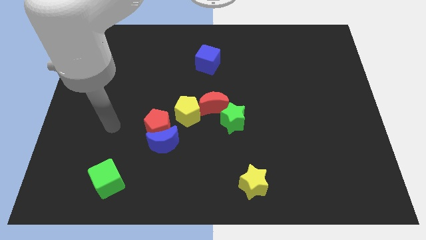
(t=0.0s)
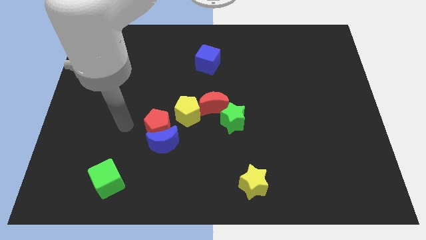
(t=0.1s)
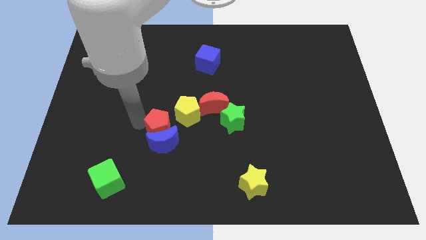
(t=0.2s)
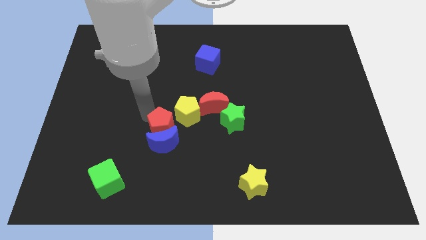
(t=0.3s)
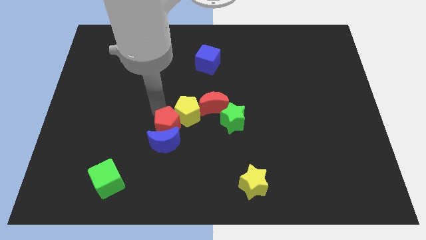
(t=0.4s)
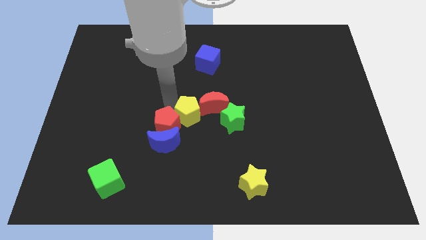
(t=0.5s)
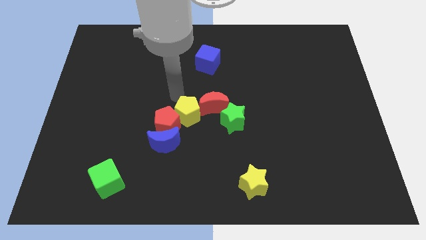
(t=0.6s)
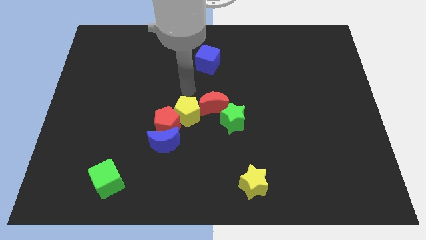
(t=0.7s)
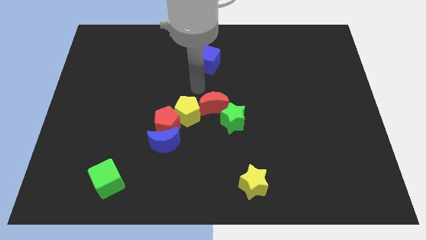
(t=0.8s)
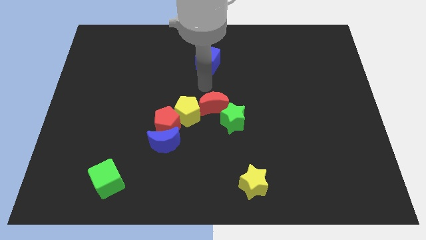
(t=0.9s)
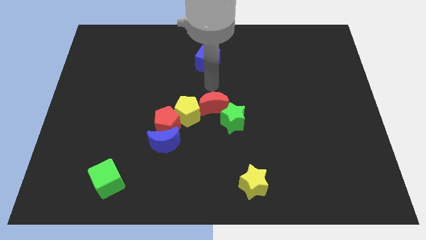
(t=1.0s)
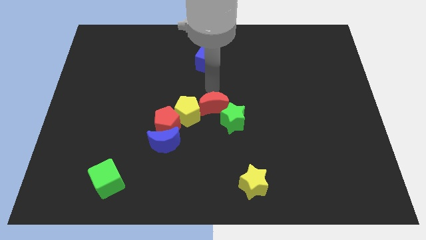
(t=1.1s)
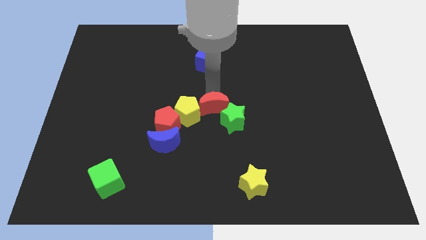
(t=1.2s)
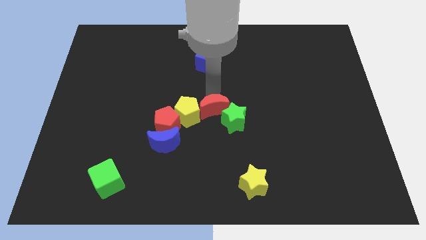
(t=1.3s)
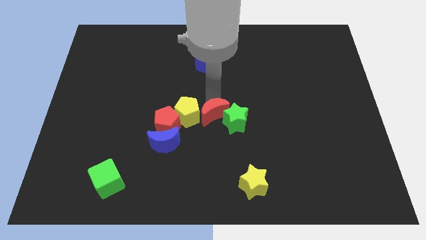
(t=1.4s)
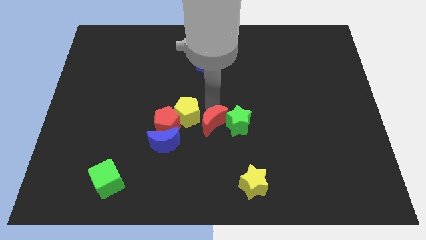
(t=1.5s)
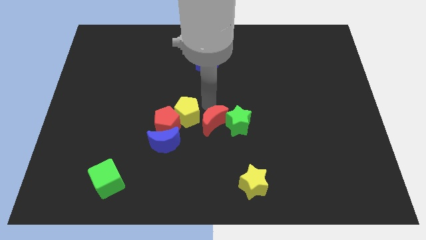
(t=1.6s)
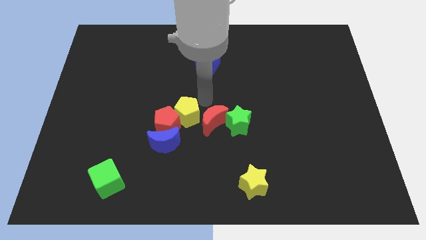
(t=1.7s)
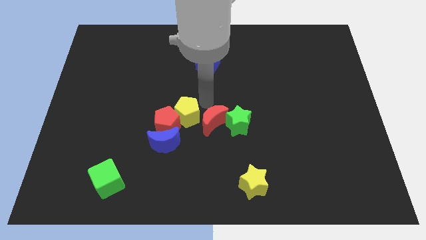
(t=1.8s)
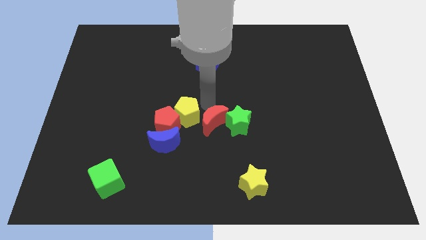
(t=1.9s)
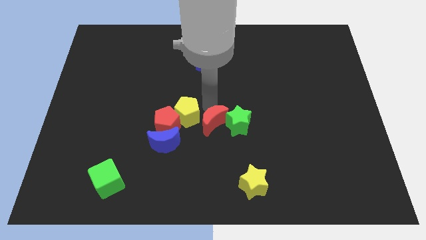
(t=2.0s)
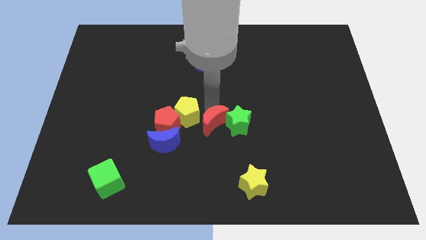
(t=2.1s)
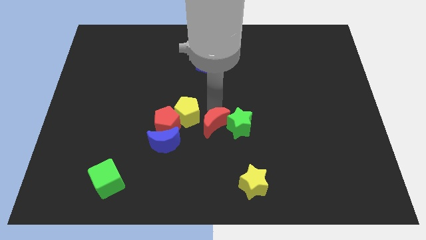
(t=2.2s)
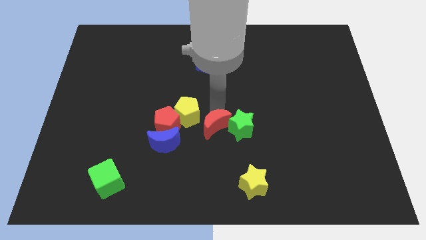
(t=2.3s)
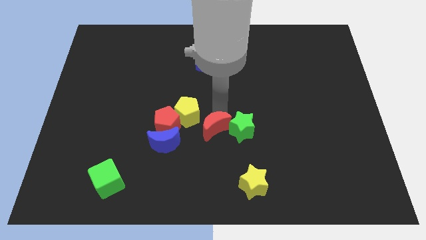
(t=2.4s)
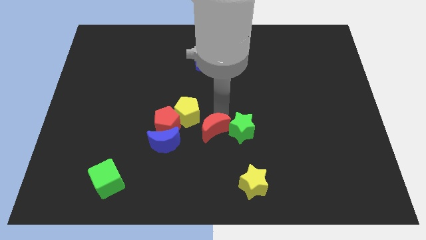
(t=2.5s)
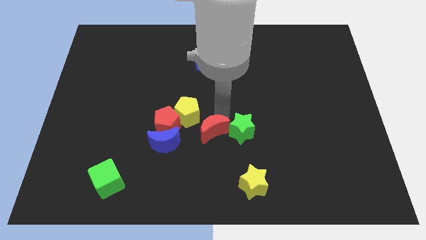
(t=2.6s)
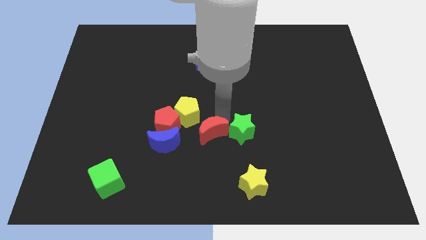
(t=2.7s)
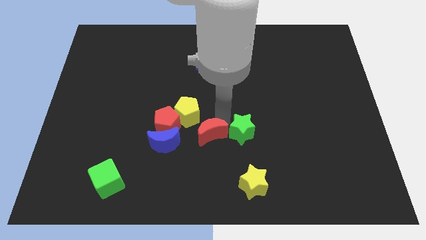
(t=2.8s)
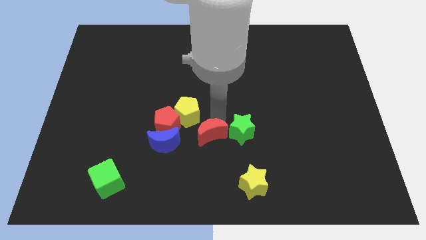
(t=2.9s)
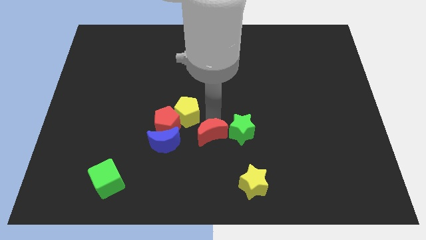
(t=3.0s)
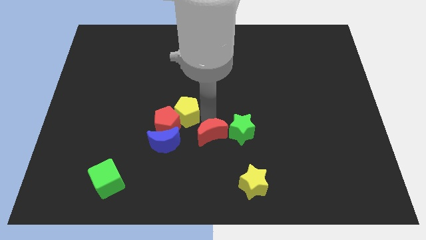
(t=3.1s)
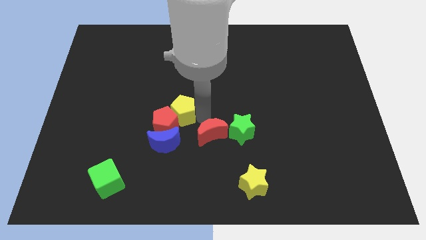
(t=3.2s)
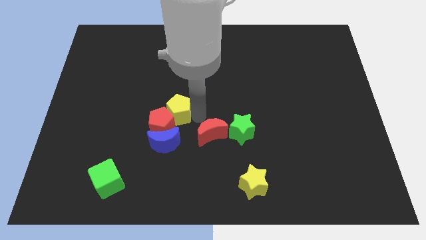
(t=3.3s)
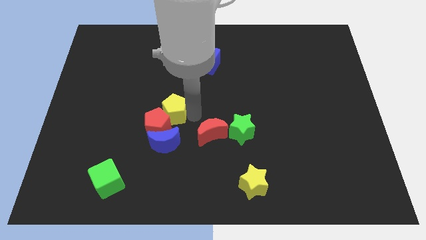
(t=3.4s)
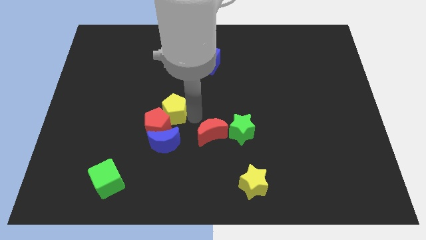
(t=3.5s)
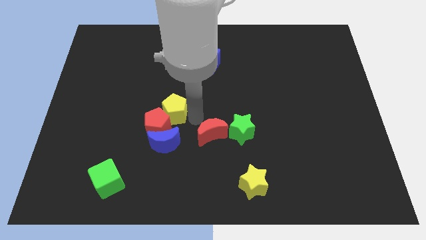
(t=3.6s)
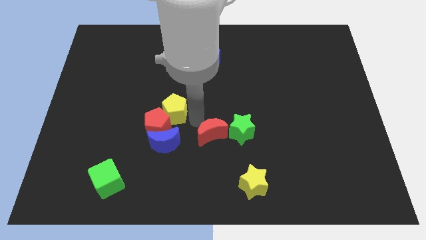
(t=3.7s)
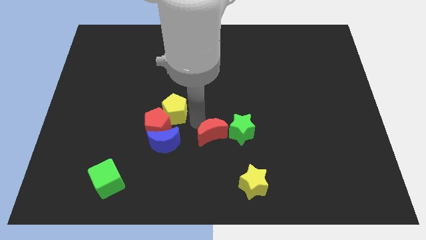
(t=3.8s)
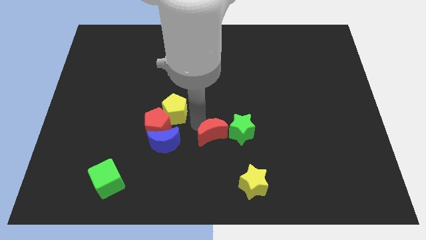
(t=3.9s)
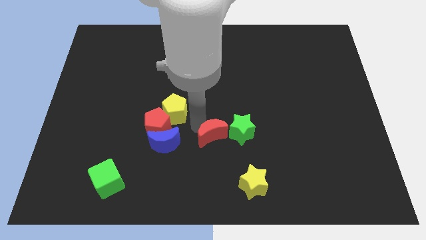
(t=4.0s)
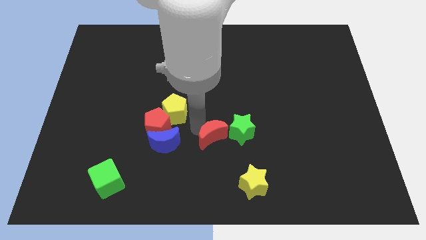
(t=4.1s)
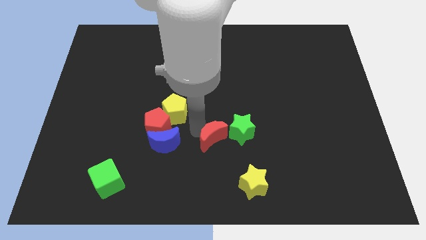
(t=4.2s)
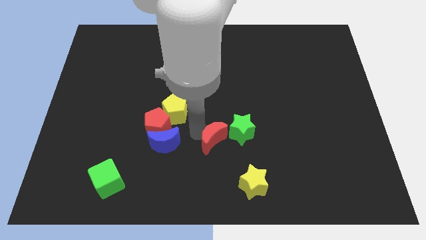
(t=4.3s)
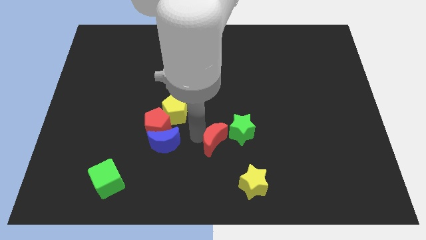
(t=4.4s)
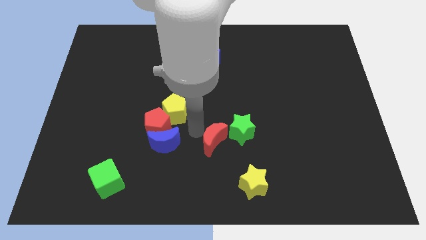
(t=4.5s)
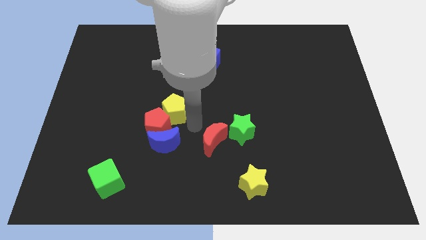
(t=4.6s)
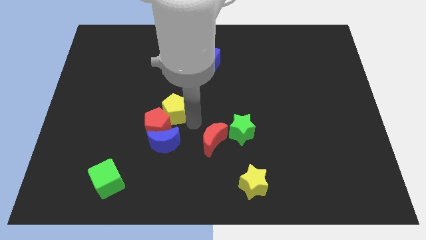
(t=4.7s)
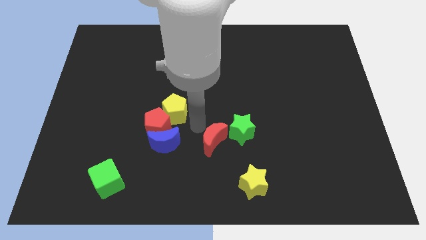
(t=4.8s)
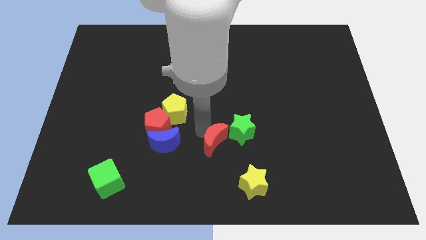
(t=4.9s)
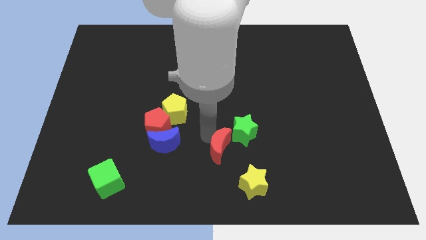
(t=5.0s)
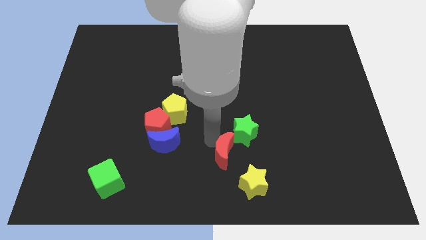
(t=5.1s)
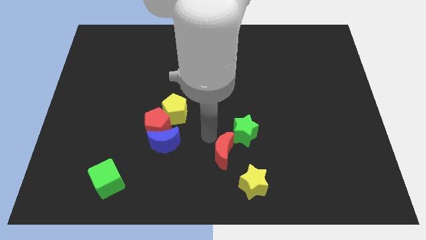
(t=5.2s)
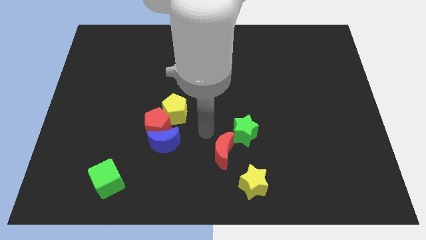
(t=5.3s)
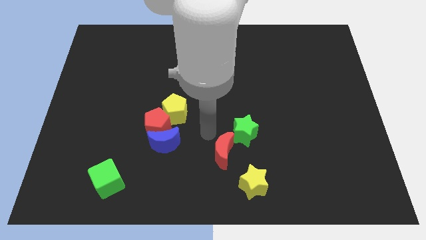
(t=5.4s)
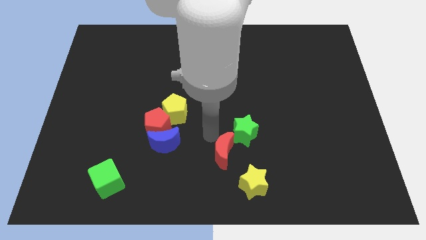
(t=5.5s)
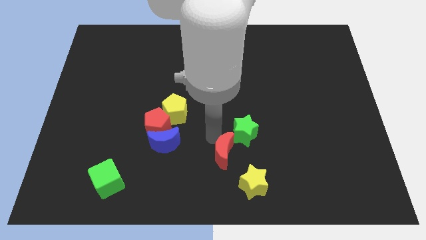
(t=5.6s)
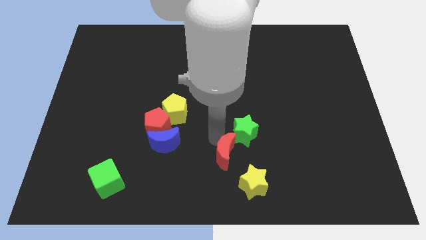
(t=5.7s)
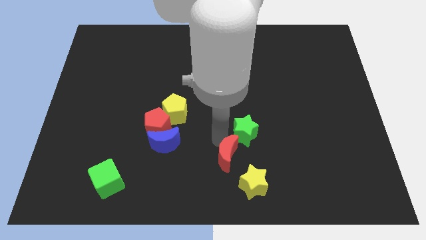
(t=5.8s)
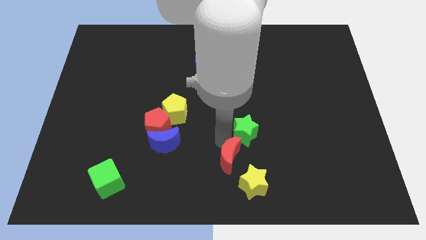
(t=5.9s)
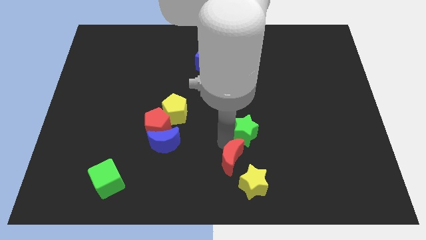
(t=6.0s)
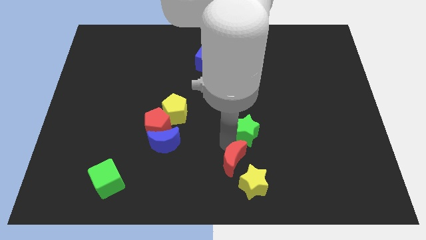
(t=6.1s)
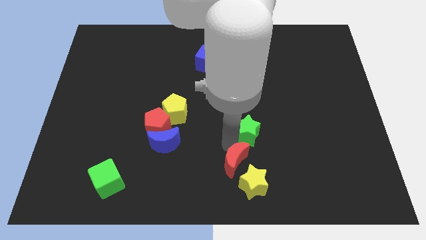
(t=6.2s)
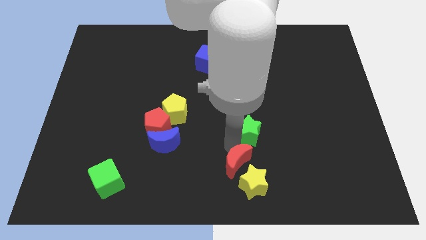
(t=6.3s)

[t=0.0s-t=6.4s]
put the red moon close to the yellow star
